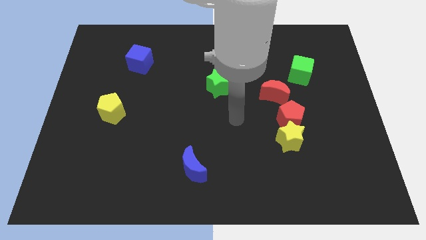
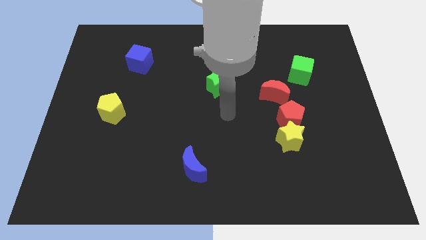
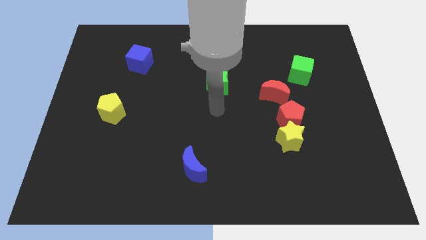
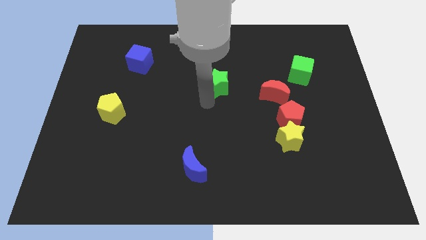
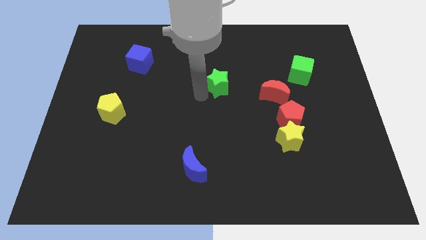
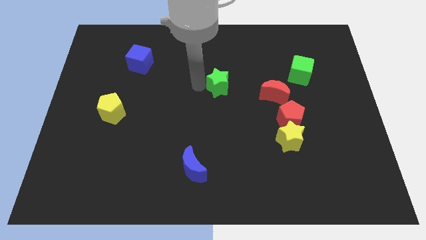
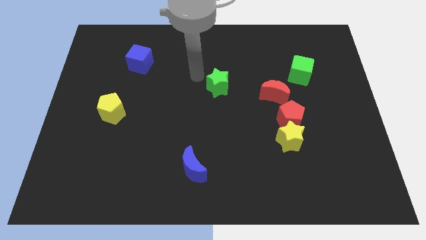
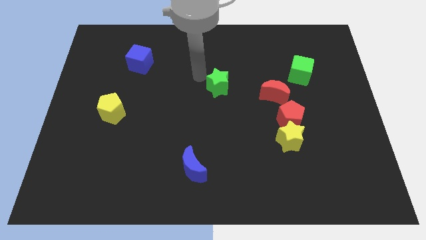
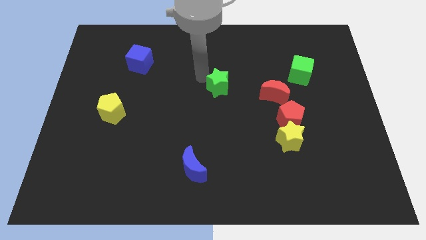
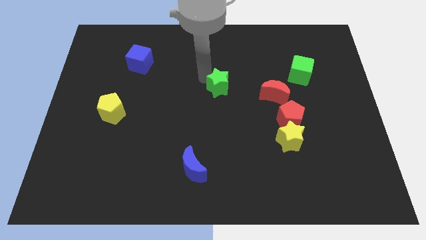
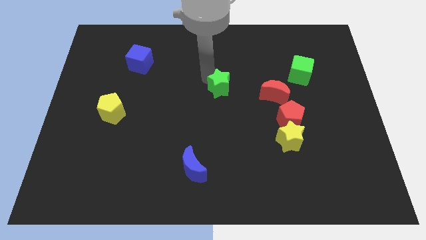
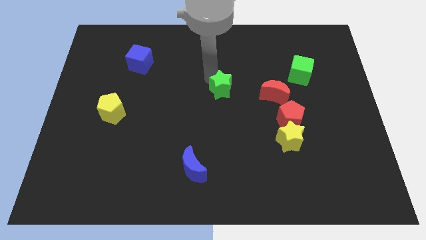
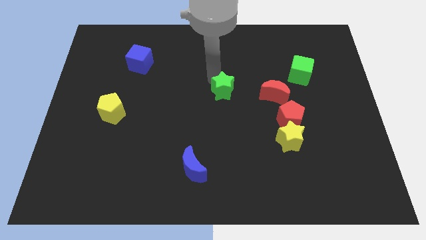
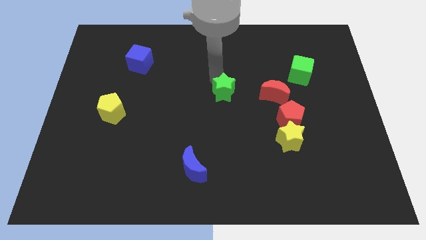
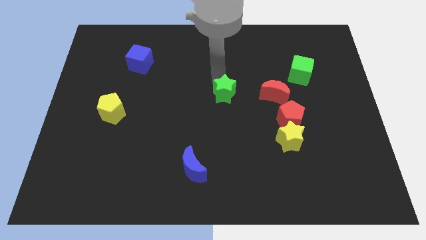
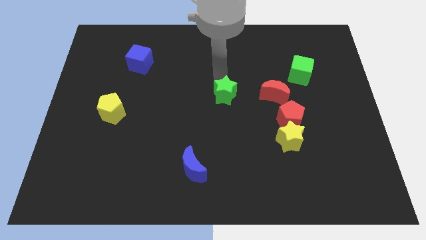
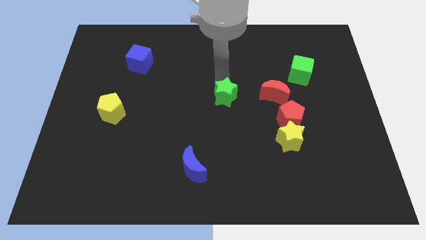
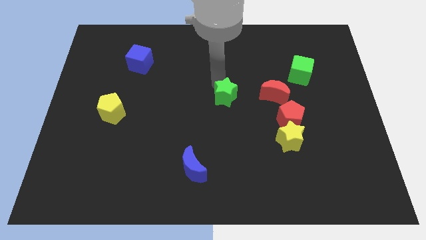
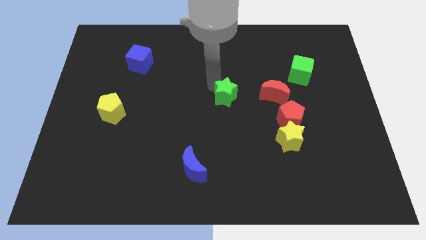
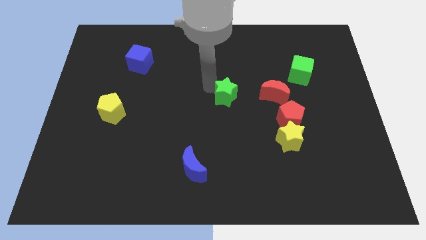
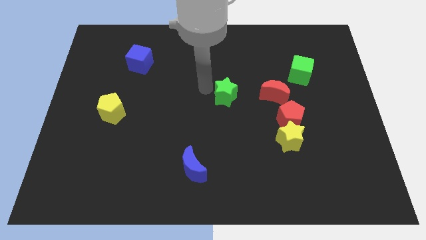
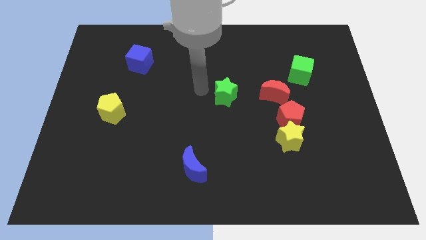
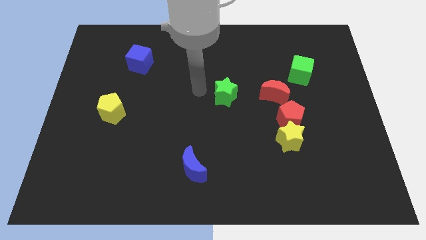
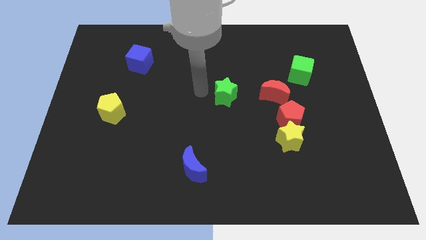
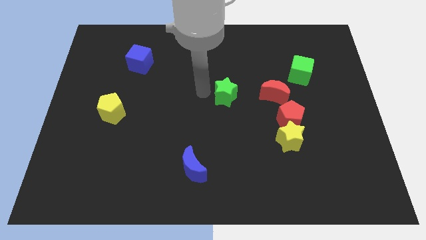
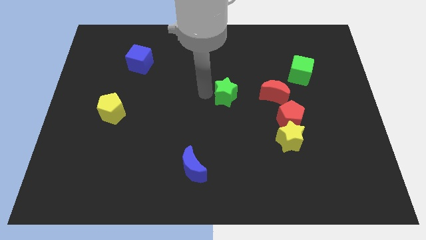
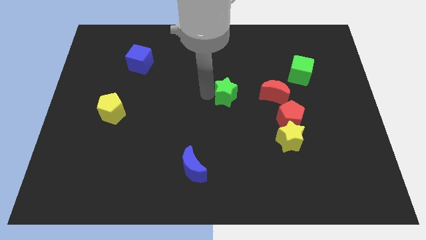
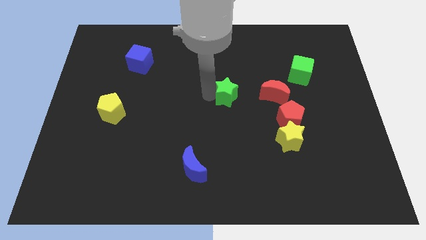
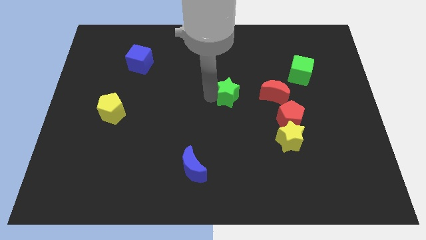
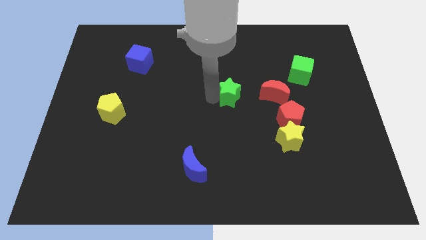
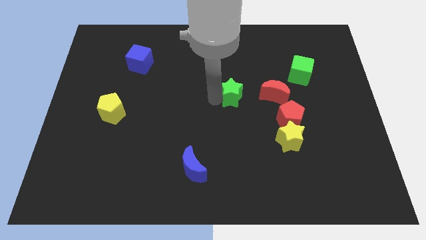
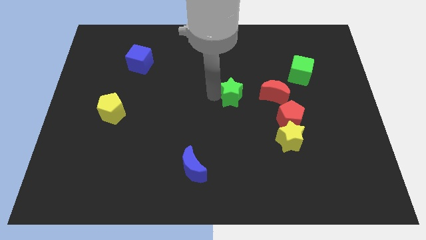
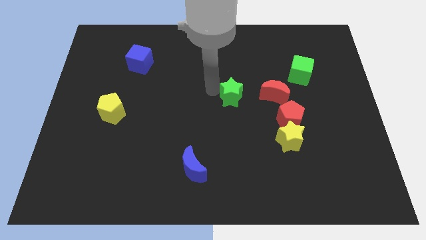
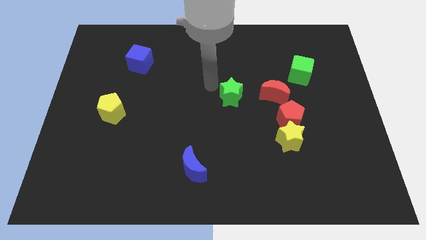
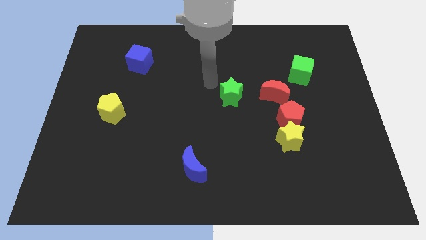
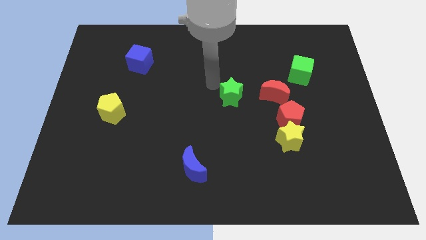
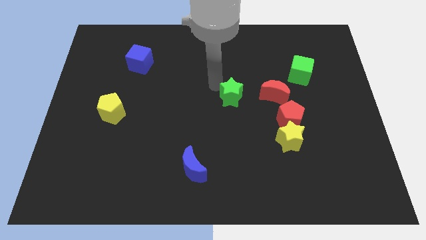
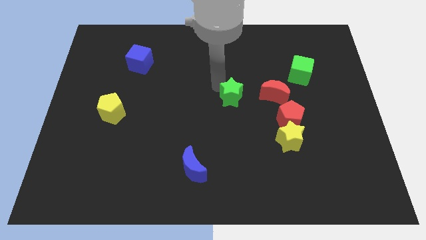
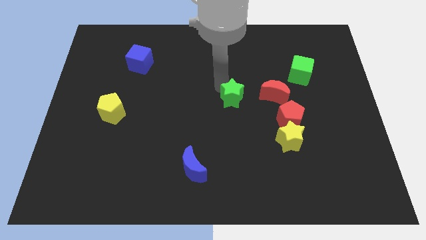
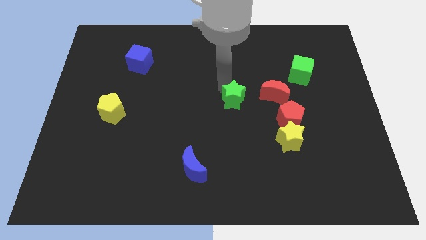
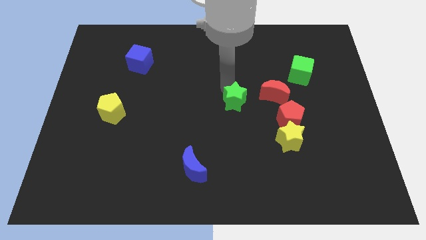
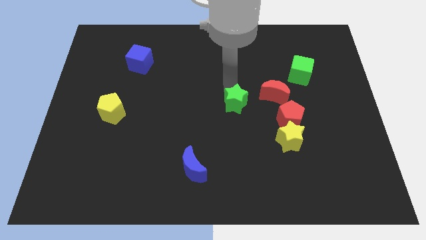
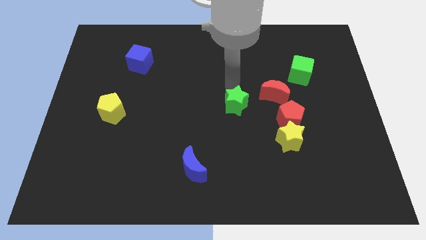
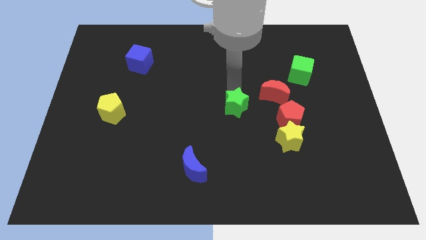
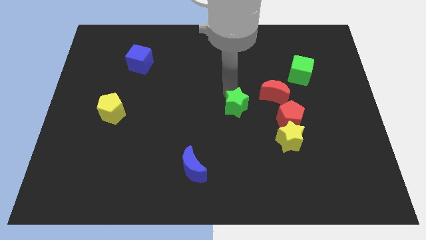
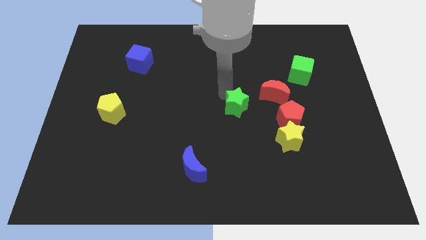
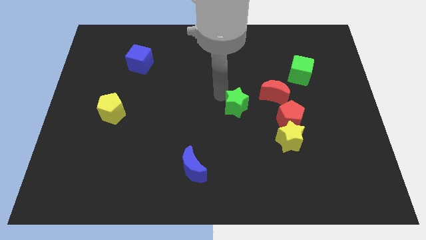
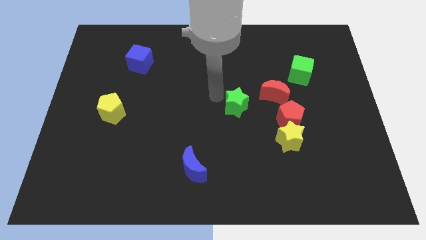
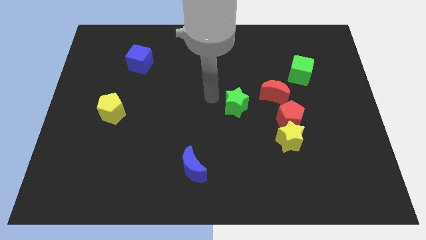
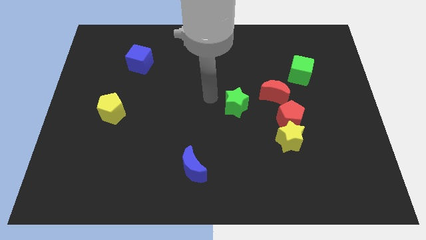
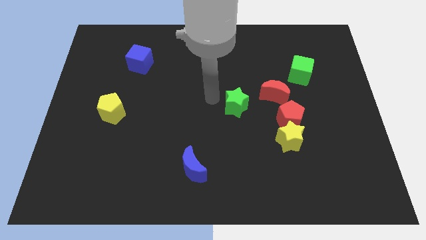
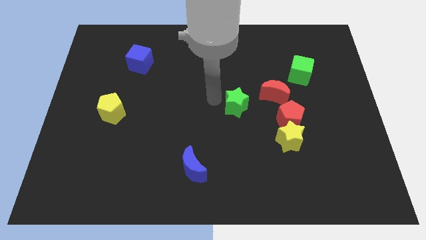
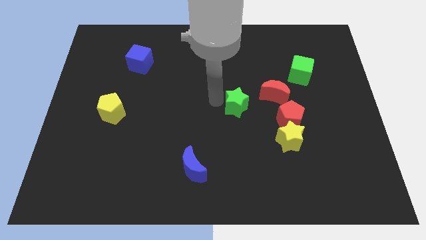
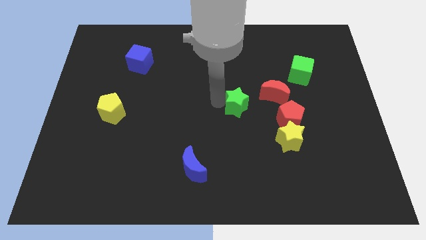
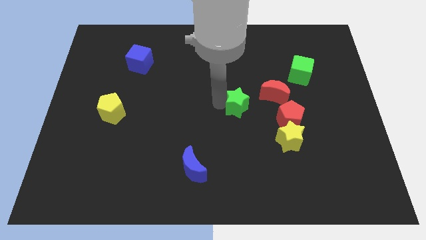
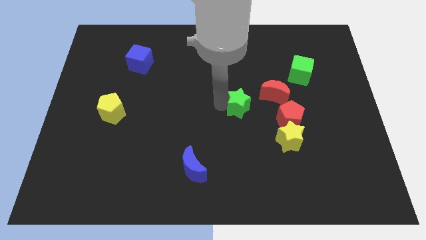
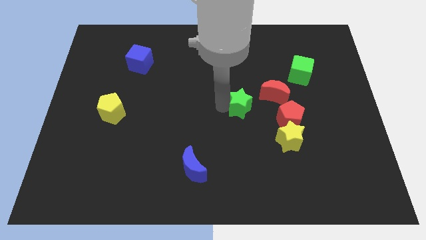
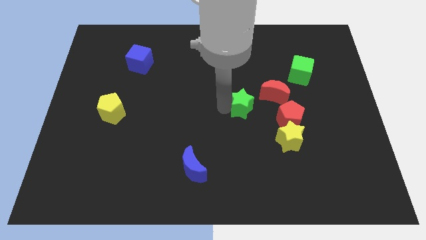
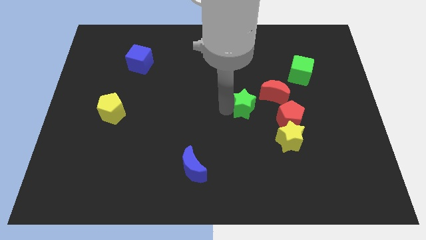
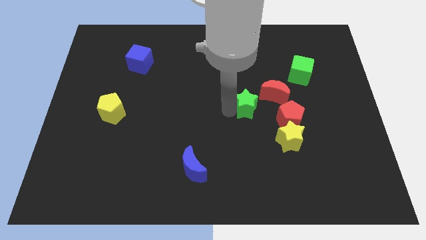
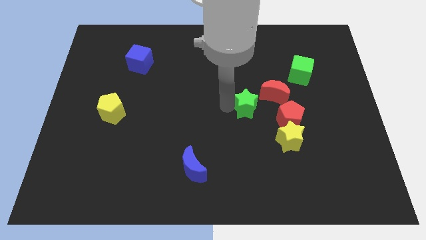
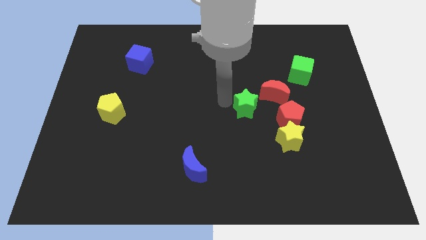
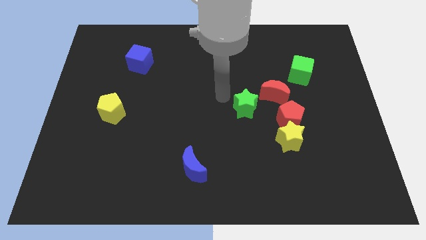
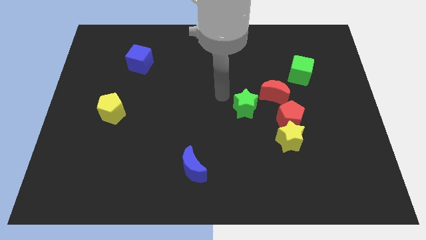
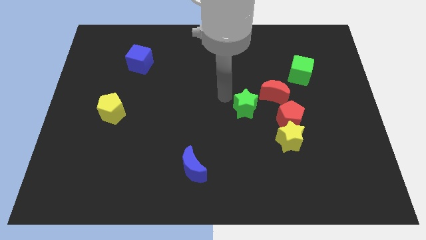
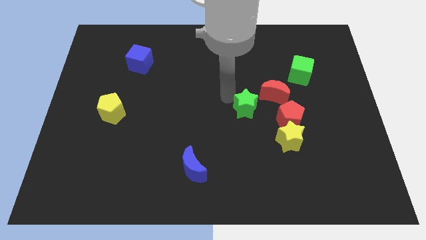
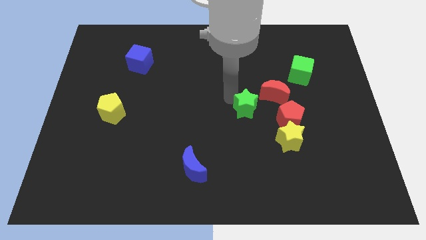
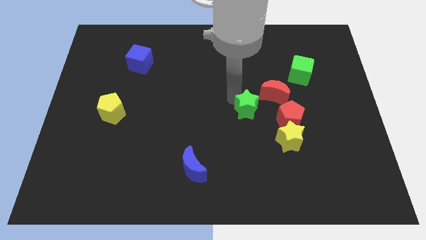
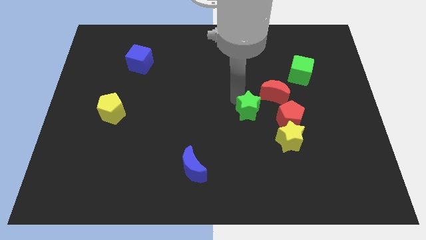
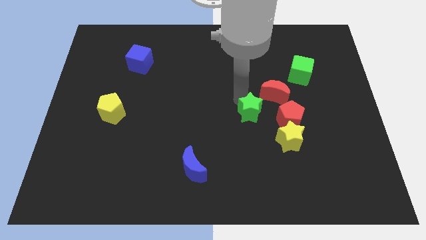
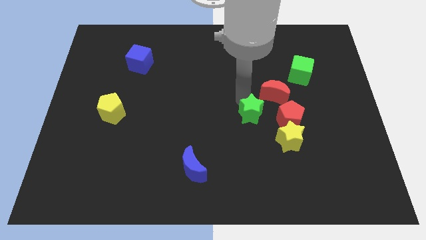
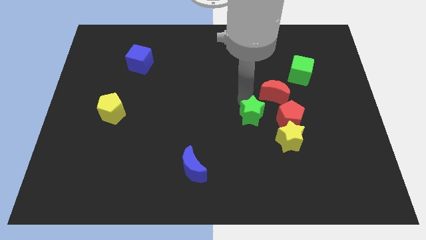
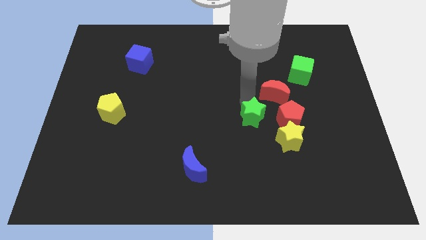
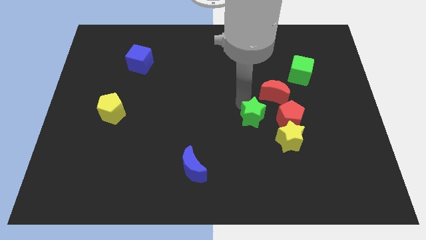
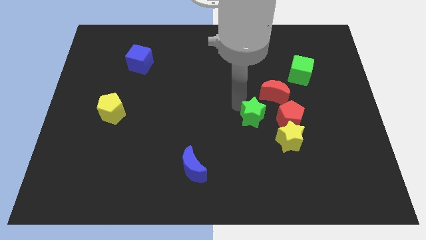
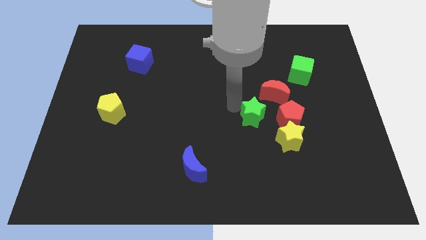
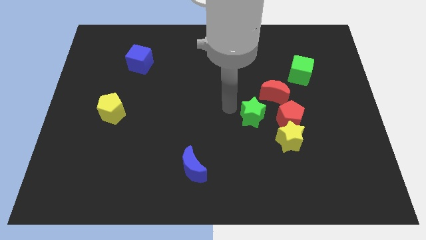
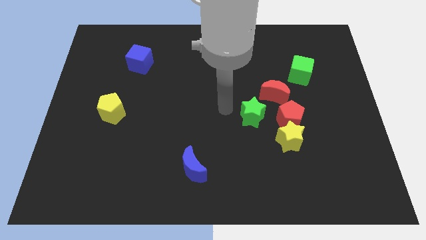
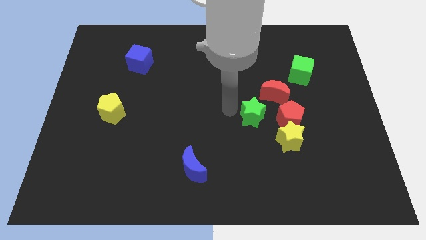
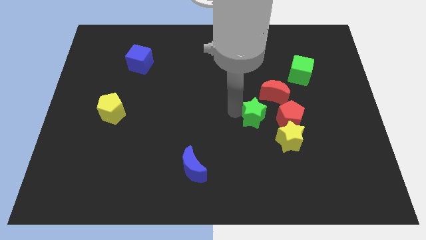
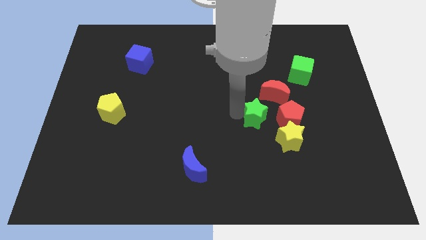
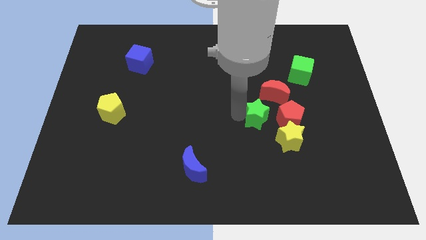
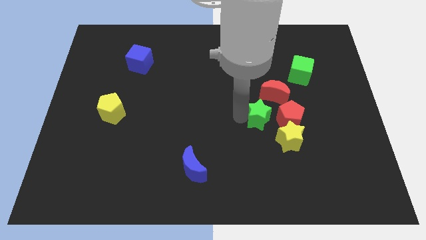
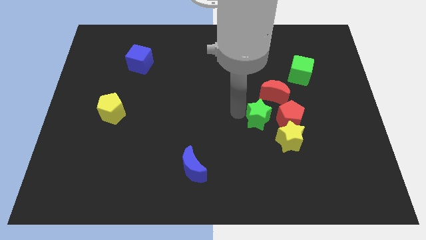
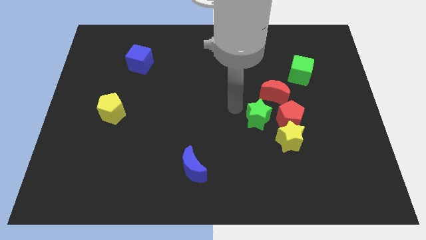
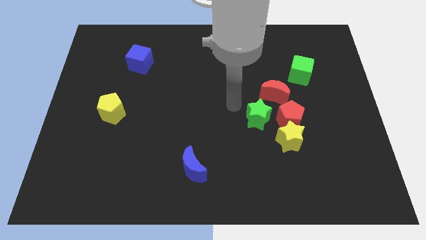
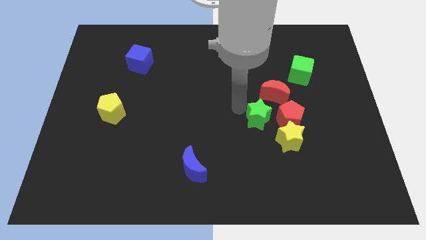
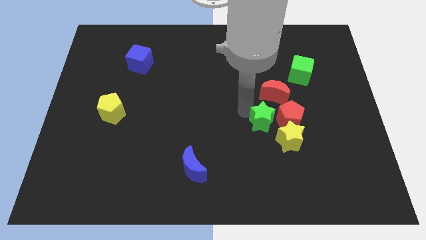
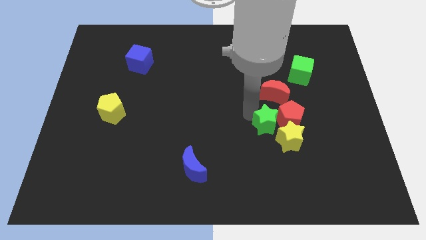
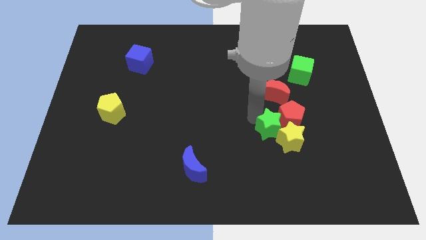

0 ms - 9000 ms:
put the green star towards the yellow star
